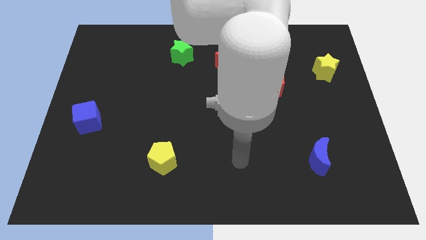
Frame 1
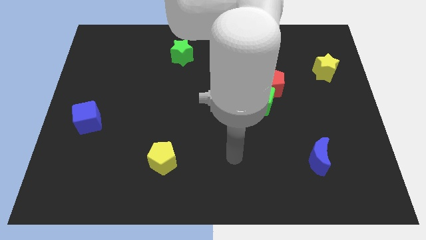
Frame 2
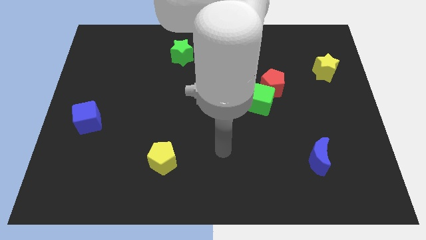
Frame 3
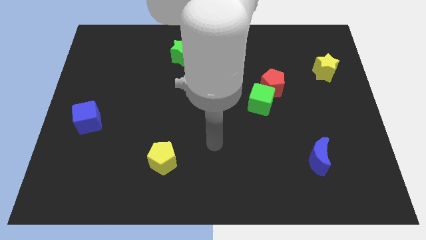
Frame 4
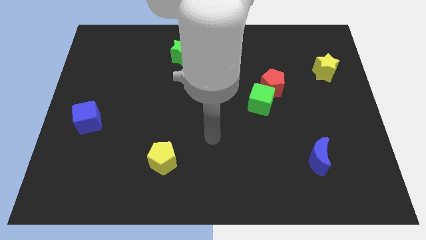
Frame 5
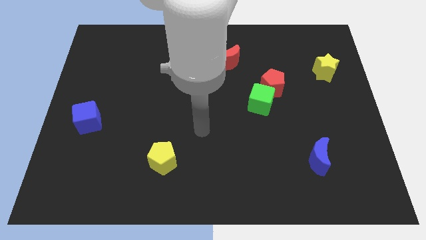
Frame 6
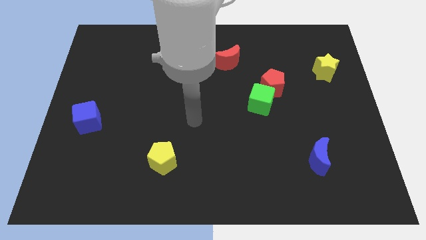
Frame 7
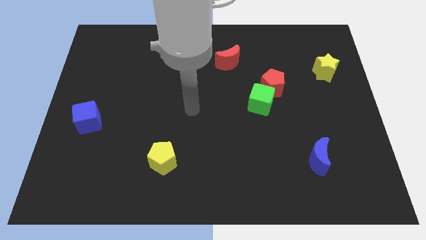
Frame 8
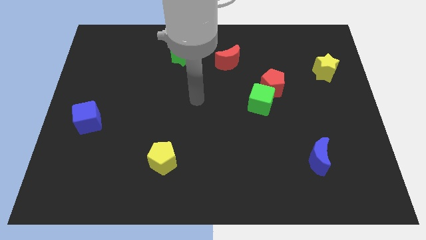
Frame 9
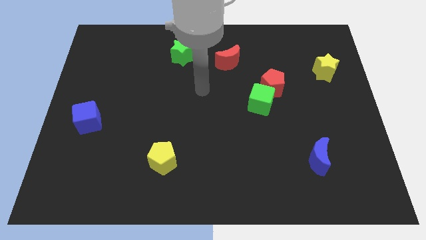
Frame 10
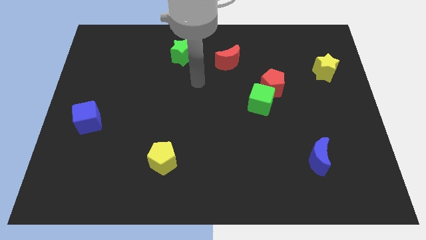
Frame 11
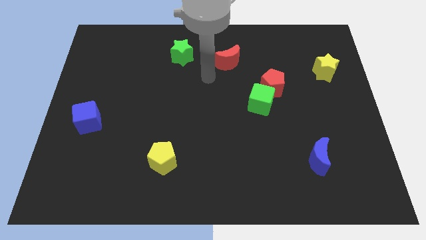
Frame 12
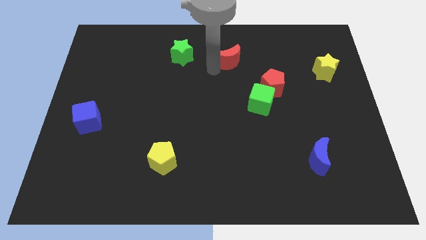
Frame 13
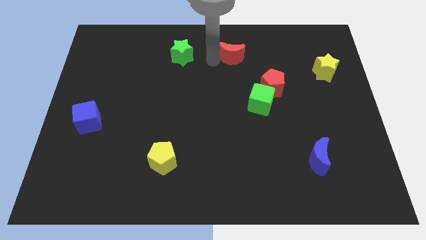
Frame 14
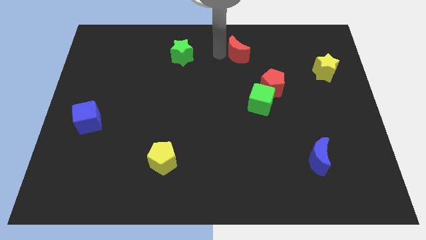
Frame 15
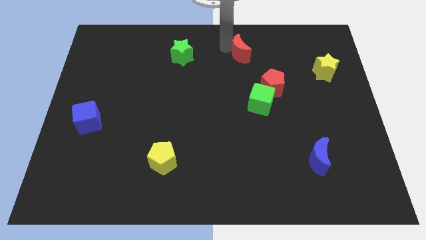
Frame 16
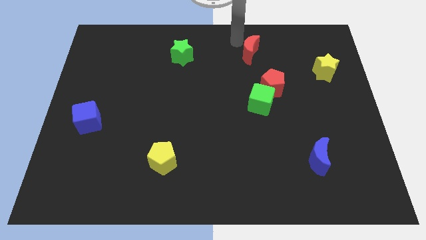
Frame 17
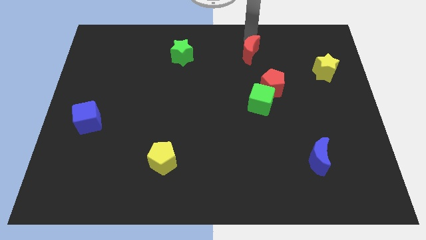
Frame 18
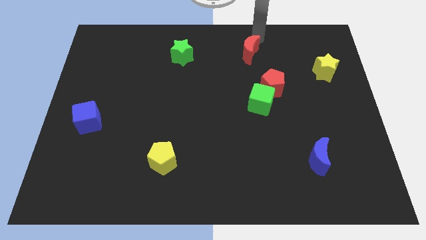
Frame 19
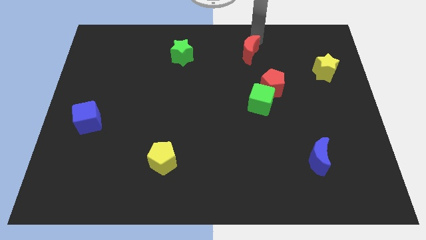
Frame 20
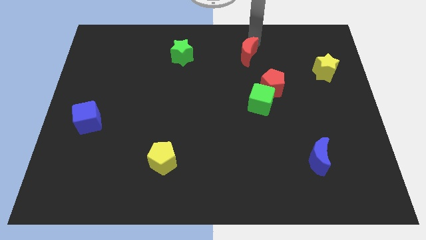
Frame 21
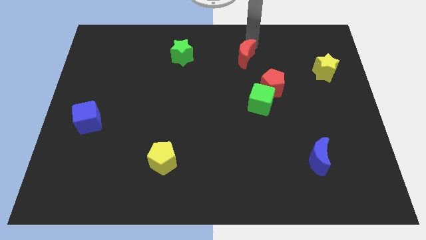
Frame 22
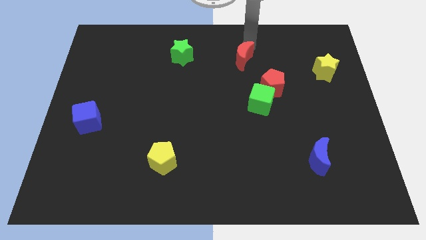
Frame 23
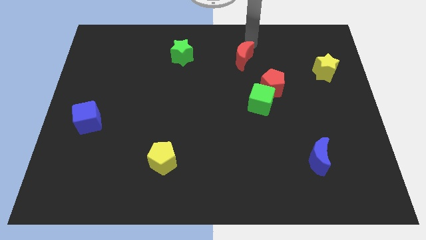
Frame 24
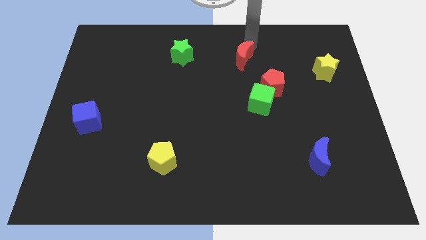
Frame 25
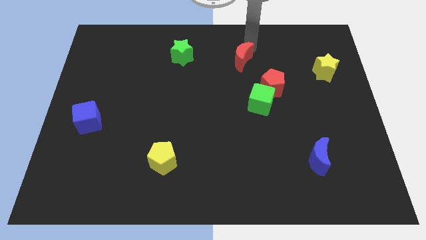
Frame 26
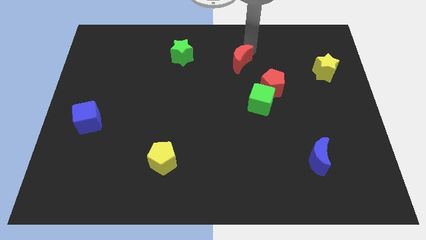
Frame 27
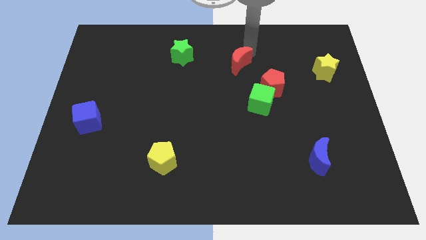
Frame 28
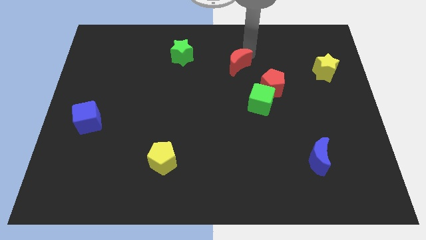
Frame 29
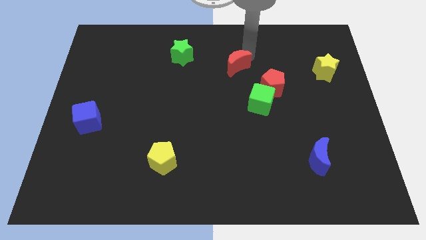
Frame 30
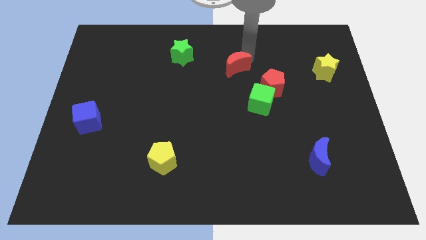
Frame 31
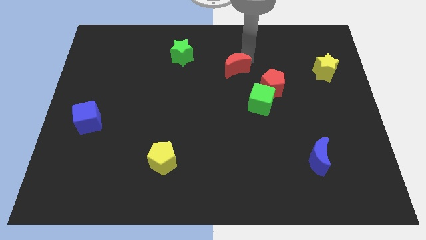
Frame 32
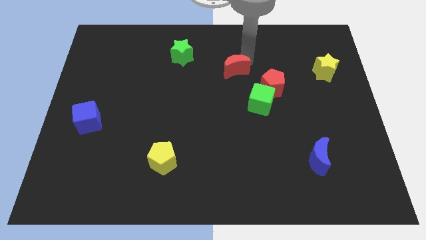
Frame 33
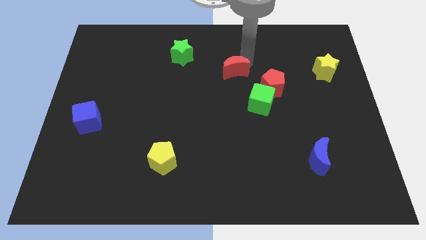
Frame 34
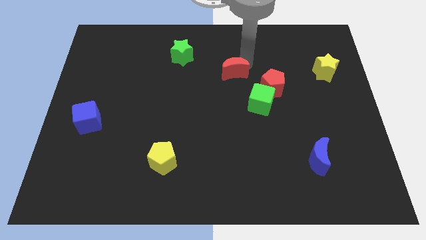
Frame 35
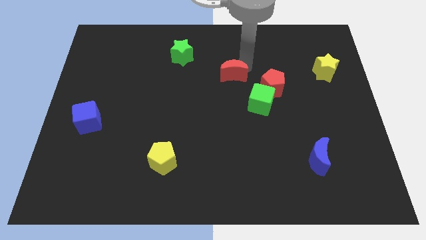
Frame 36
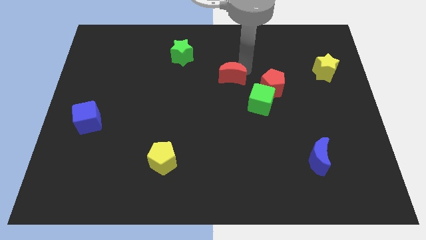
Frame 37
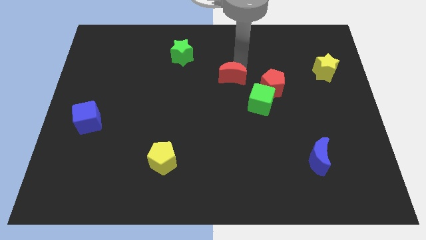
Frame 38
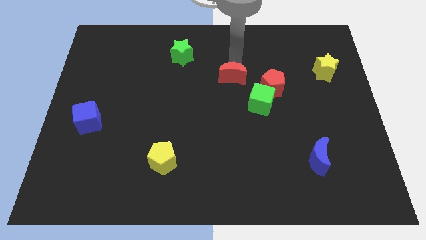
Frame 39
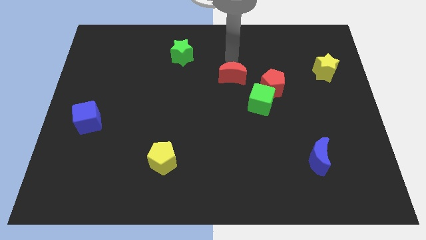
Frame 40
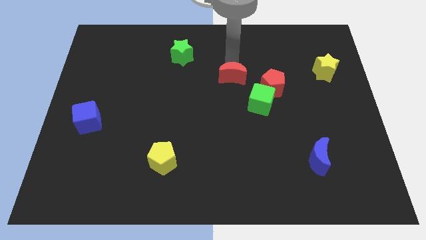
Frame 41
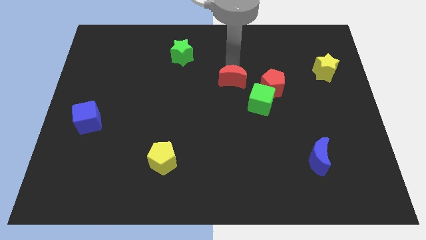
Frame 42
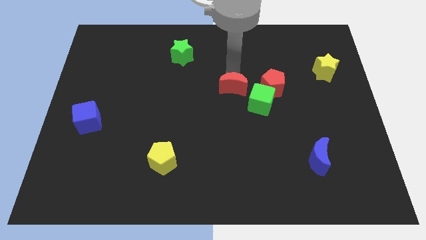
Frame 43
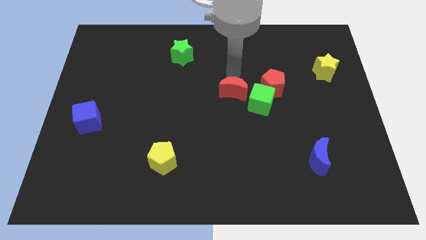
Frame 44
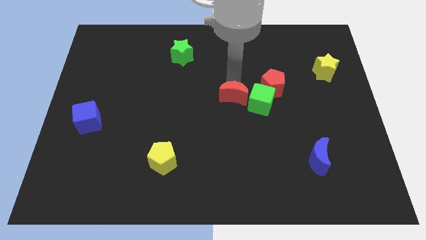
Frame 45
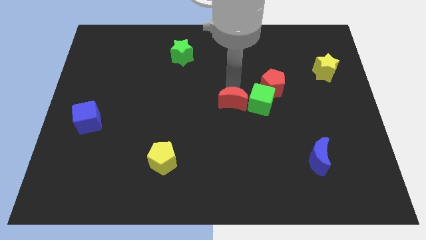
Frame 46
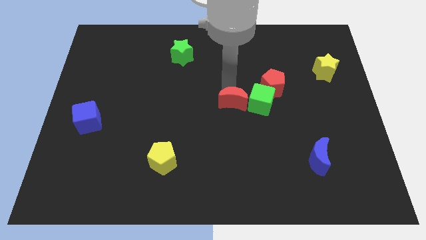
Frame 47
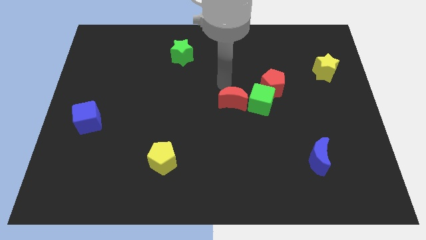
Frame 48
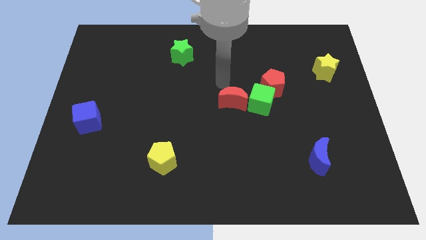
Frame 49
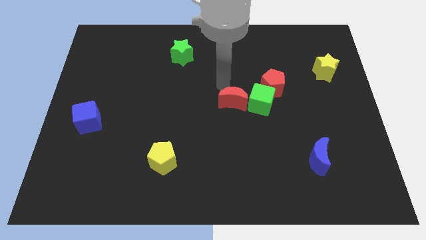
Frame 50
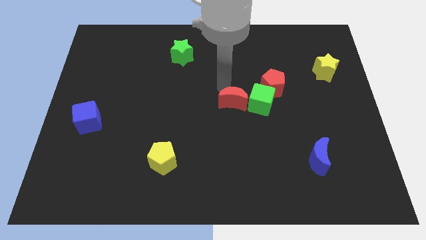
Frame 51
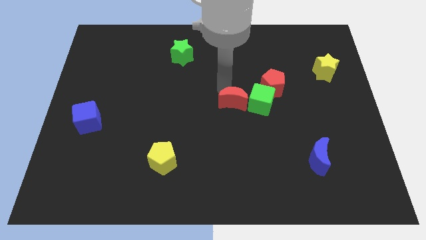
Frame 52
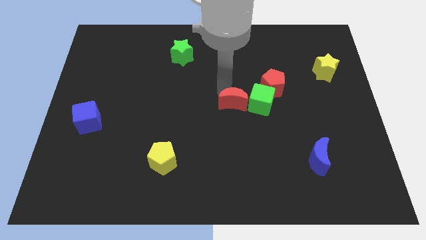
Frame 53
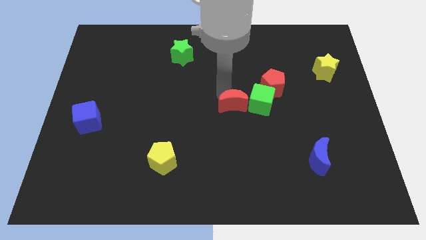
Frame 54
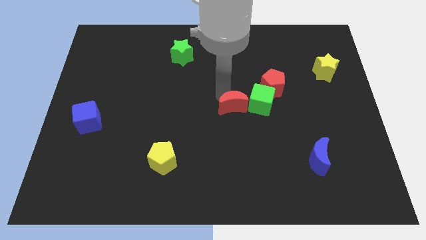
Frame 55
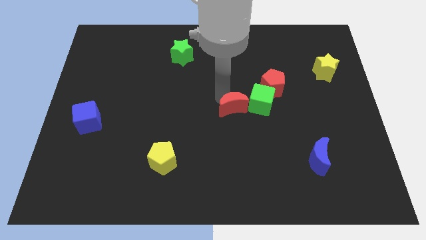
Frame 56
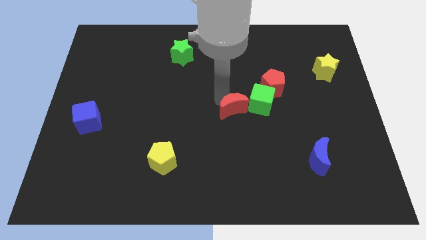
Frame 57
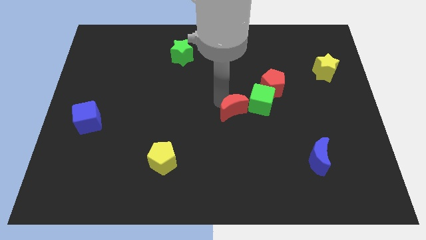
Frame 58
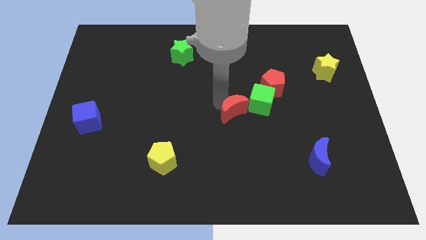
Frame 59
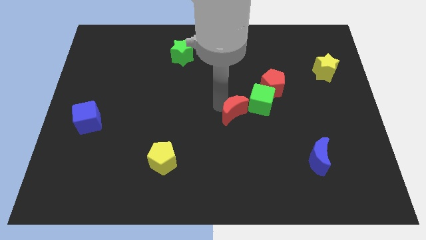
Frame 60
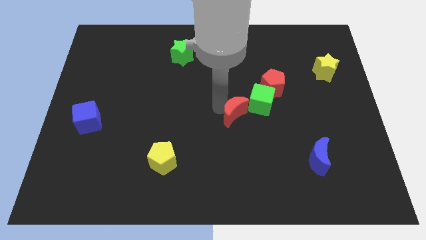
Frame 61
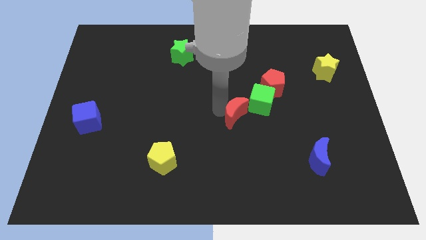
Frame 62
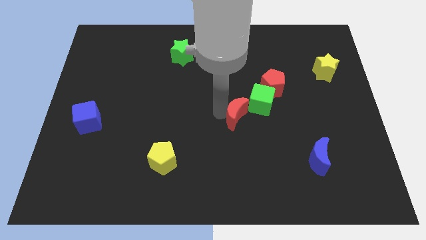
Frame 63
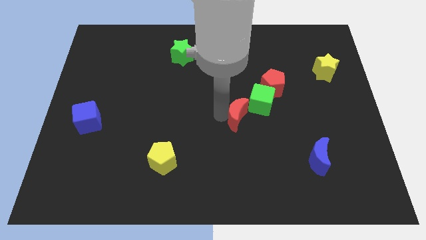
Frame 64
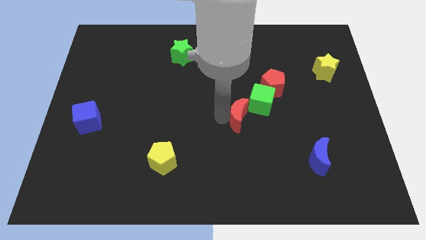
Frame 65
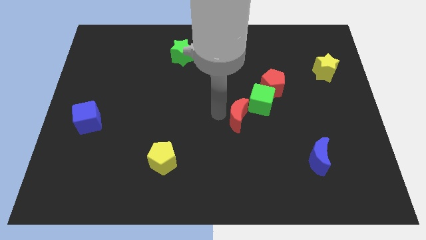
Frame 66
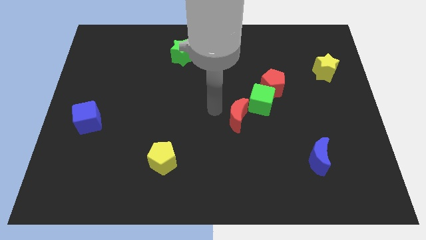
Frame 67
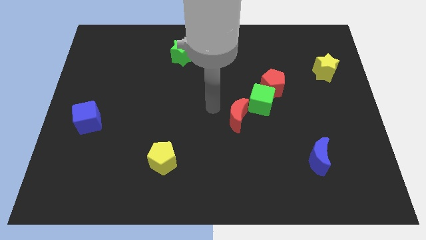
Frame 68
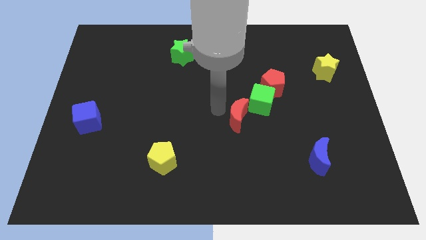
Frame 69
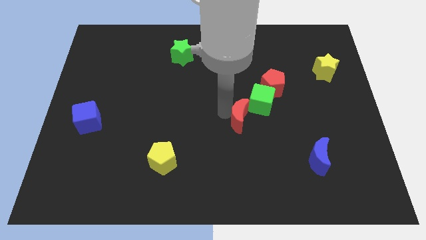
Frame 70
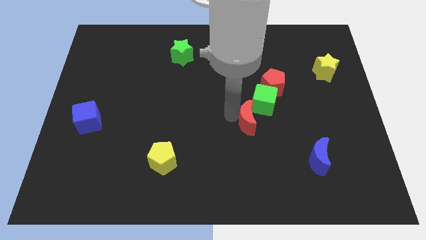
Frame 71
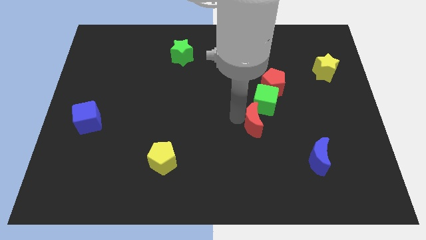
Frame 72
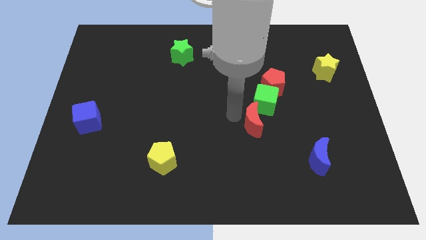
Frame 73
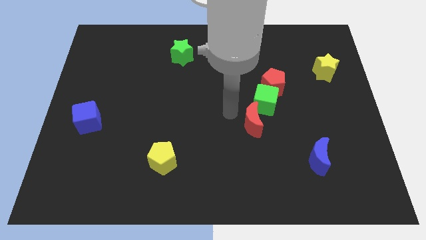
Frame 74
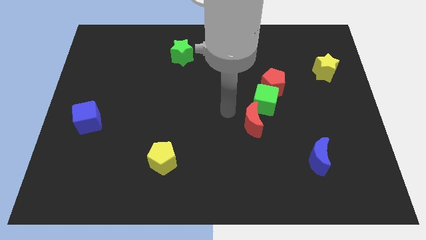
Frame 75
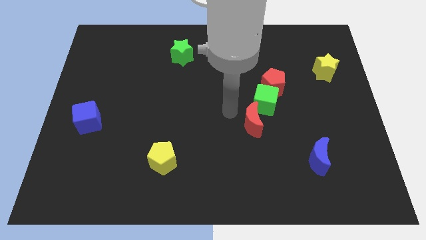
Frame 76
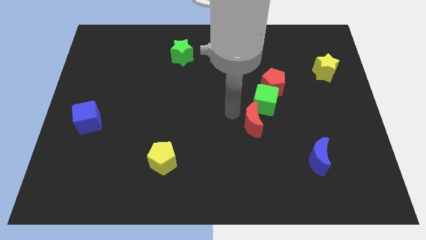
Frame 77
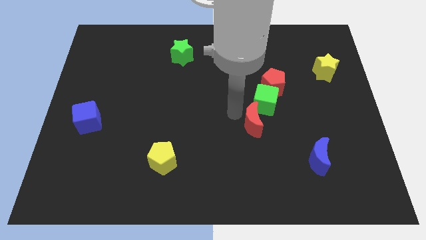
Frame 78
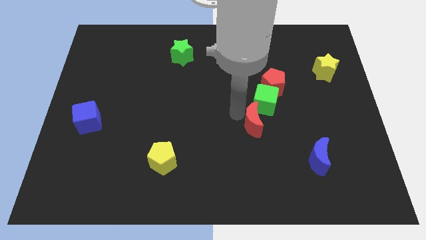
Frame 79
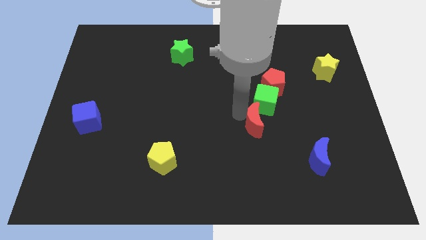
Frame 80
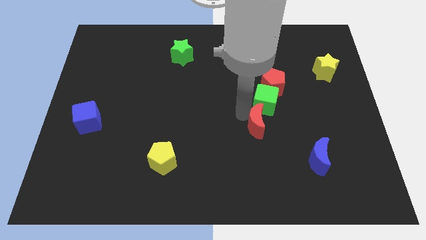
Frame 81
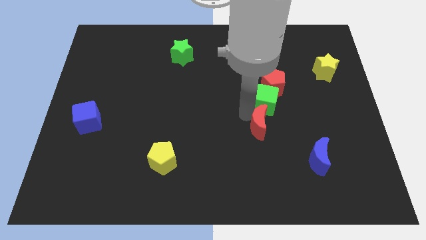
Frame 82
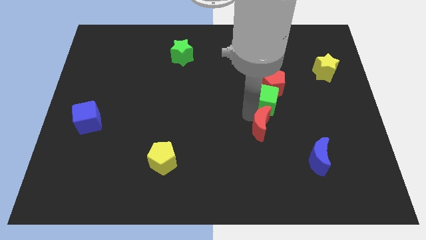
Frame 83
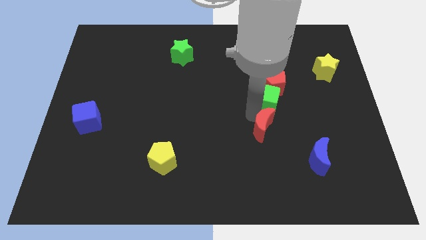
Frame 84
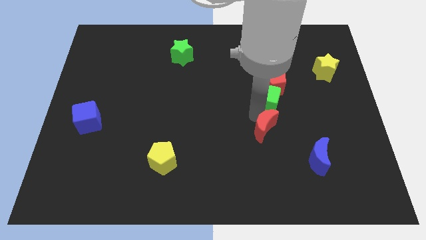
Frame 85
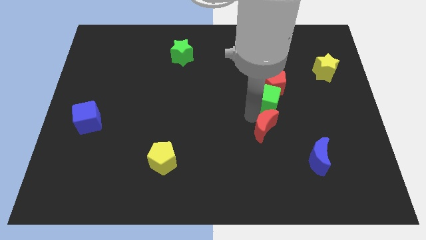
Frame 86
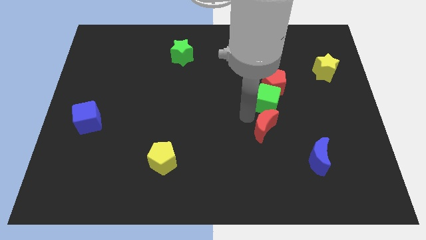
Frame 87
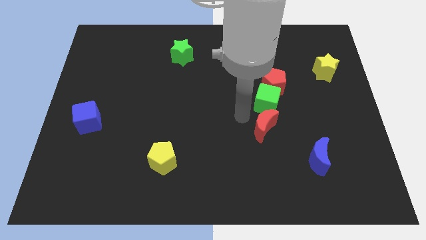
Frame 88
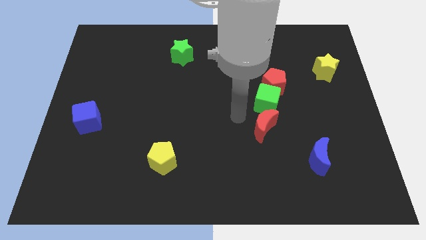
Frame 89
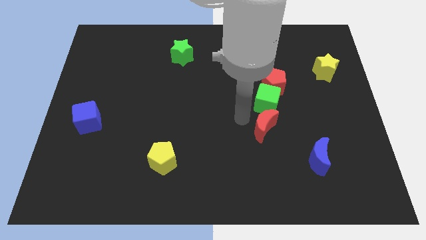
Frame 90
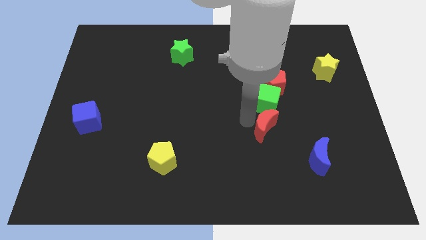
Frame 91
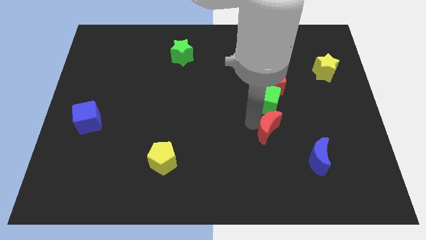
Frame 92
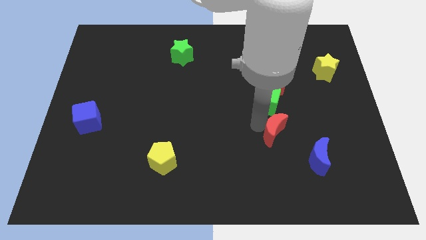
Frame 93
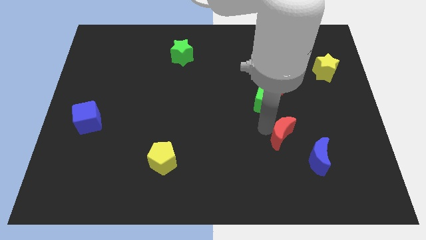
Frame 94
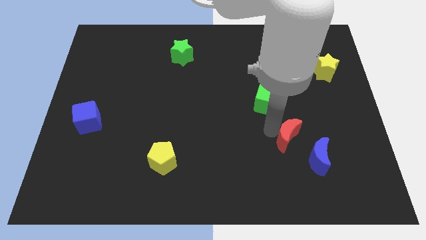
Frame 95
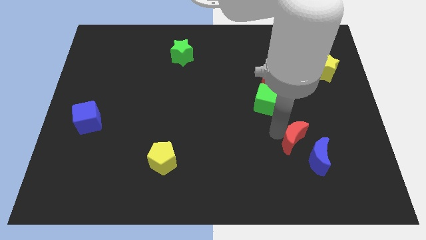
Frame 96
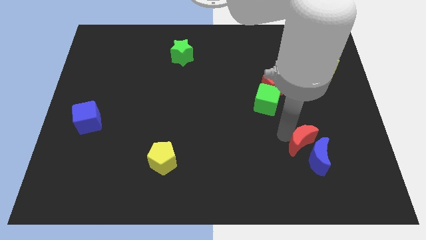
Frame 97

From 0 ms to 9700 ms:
slide the red moon to the blue moon
